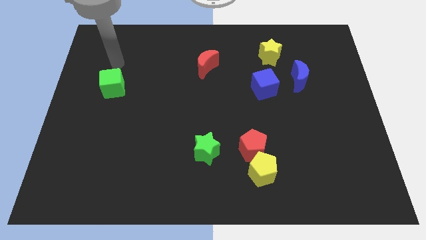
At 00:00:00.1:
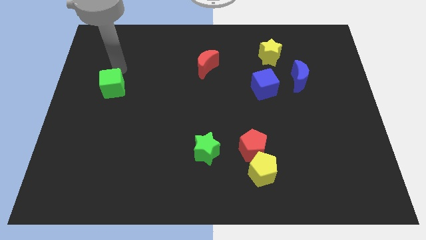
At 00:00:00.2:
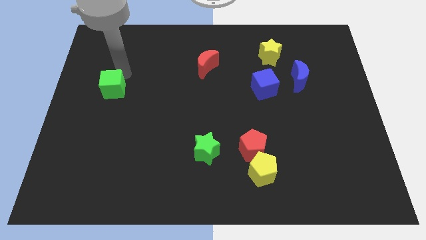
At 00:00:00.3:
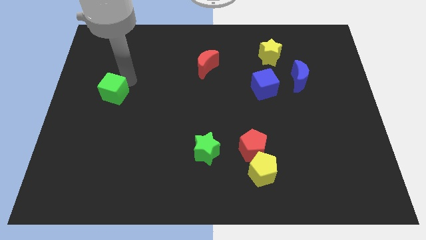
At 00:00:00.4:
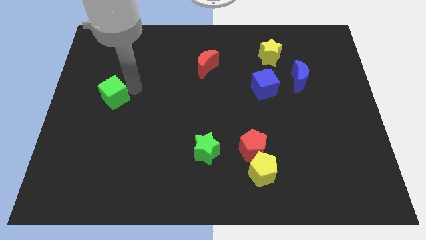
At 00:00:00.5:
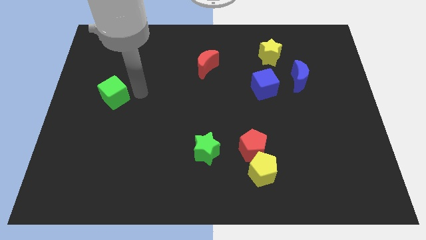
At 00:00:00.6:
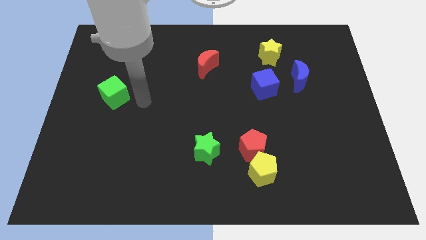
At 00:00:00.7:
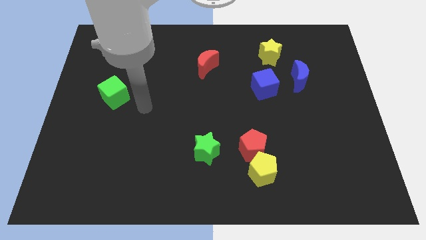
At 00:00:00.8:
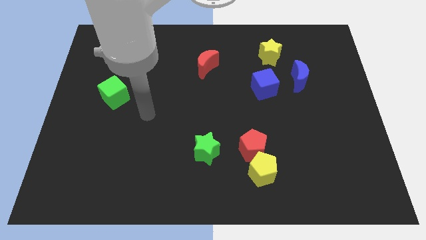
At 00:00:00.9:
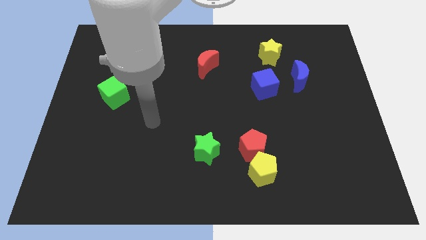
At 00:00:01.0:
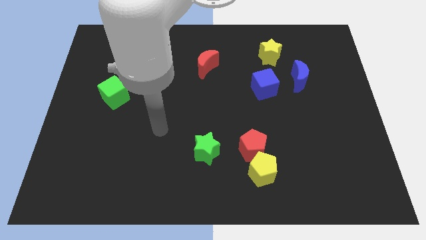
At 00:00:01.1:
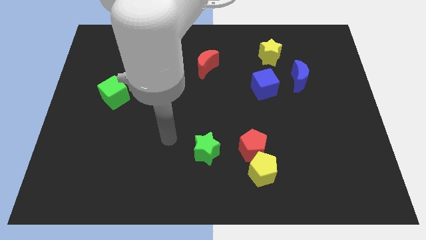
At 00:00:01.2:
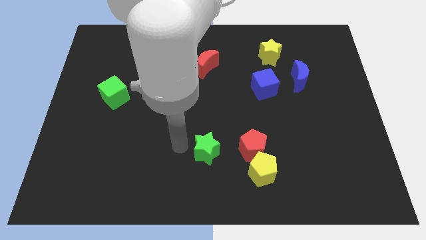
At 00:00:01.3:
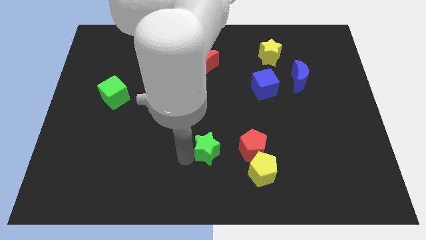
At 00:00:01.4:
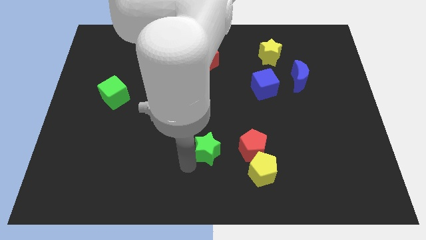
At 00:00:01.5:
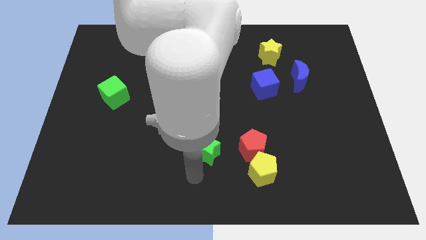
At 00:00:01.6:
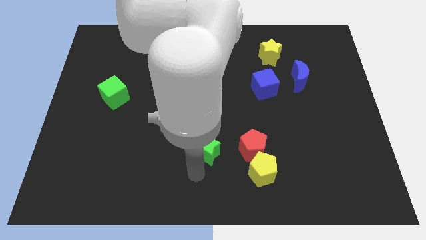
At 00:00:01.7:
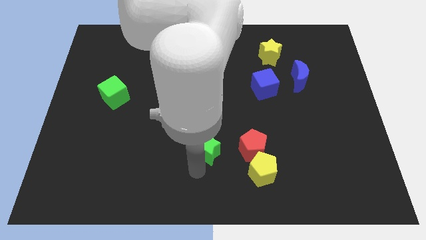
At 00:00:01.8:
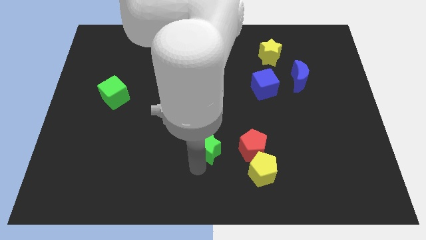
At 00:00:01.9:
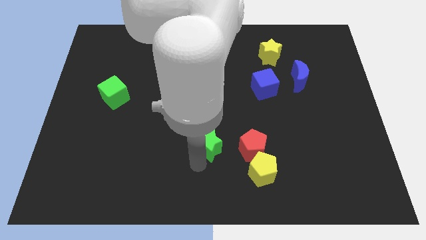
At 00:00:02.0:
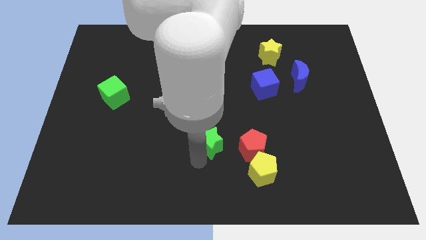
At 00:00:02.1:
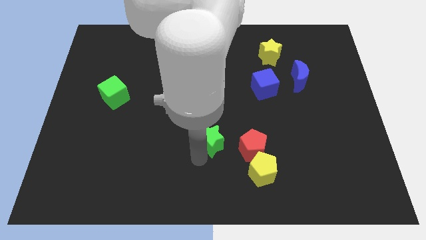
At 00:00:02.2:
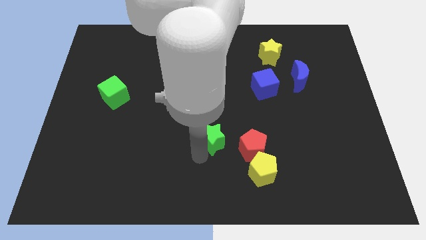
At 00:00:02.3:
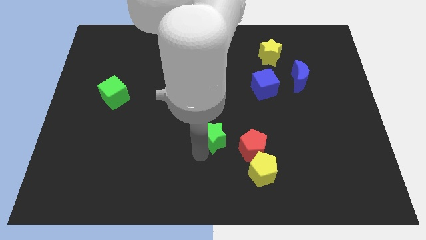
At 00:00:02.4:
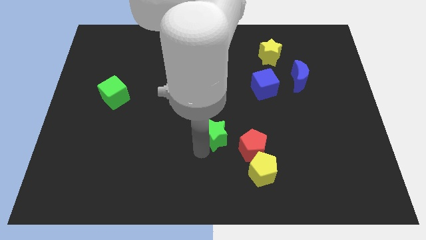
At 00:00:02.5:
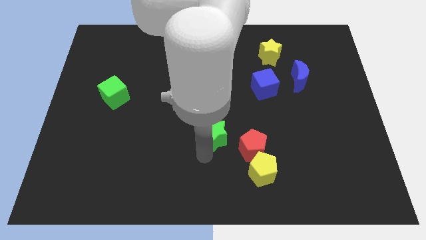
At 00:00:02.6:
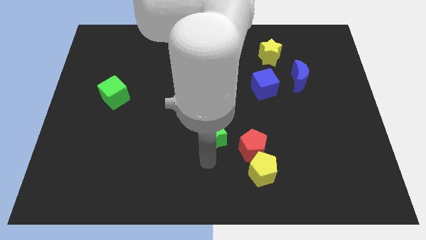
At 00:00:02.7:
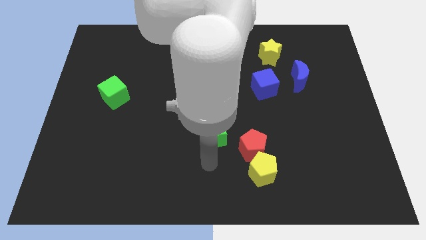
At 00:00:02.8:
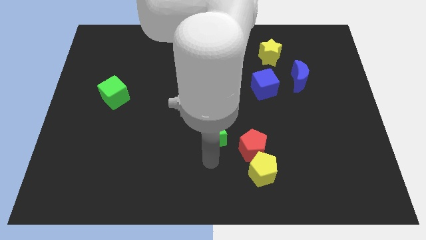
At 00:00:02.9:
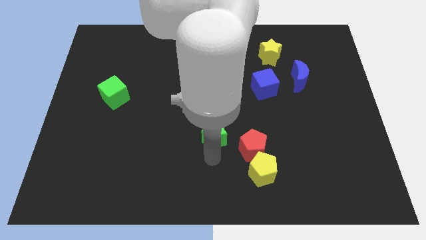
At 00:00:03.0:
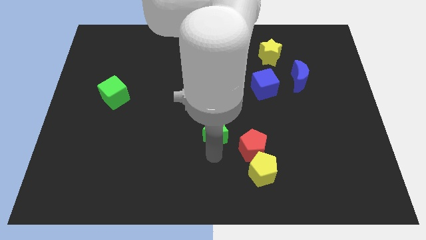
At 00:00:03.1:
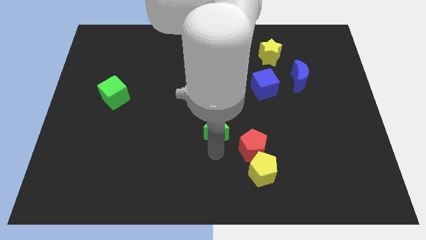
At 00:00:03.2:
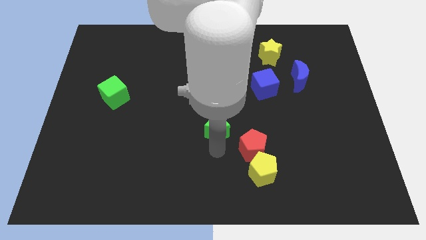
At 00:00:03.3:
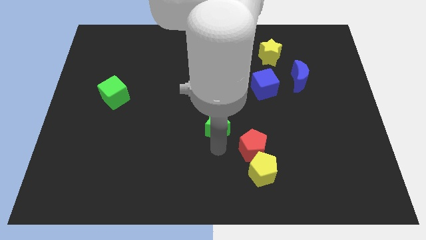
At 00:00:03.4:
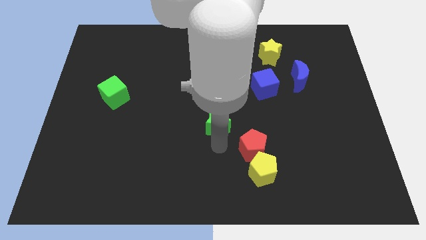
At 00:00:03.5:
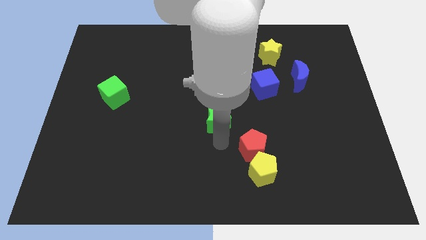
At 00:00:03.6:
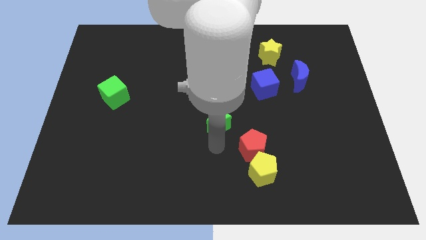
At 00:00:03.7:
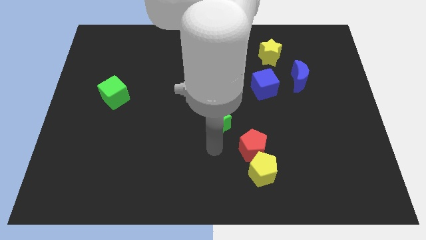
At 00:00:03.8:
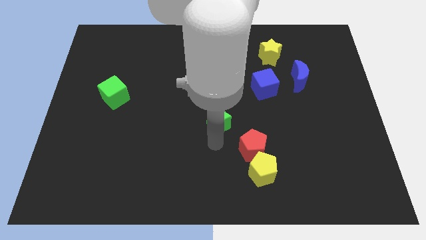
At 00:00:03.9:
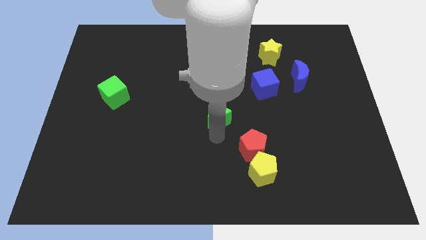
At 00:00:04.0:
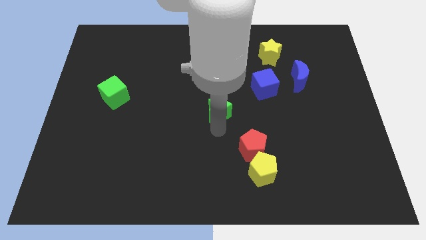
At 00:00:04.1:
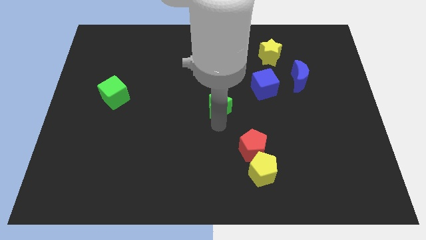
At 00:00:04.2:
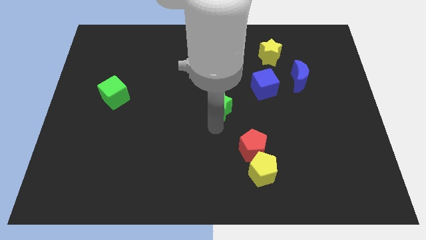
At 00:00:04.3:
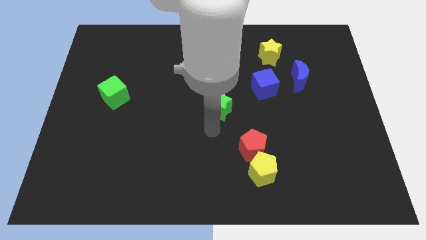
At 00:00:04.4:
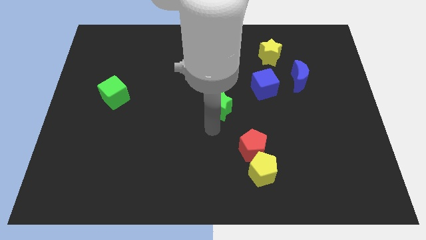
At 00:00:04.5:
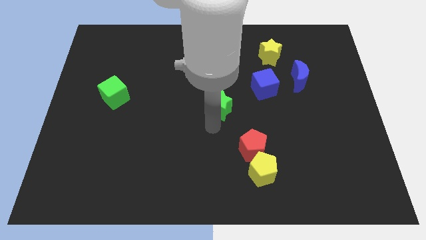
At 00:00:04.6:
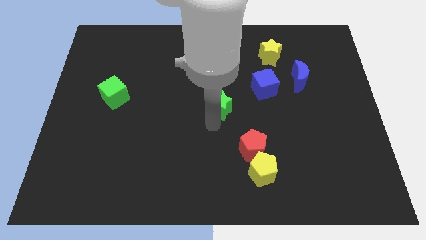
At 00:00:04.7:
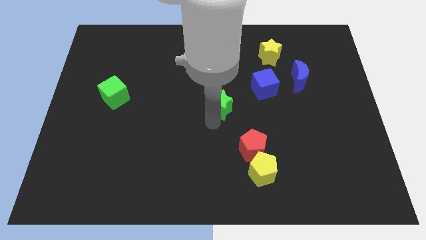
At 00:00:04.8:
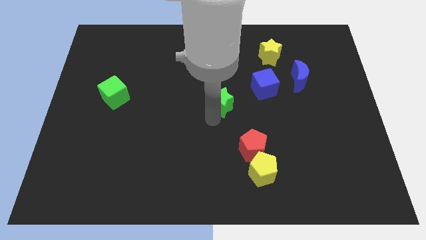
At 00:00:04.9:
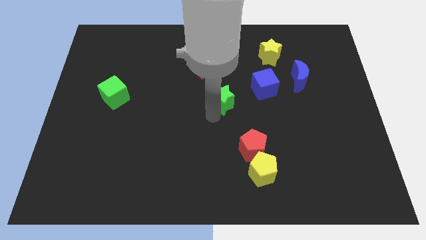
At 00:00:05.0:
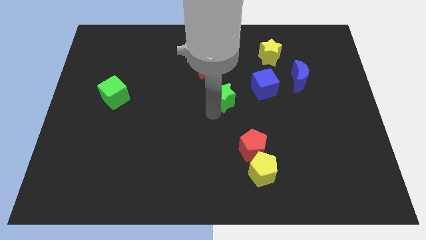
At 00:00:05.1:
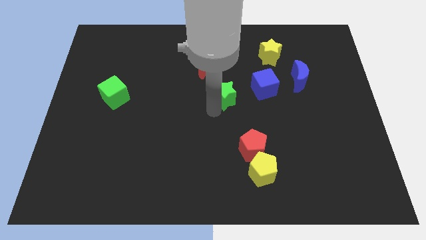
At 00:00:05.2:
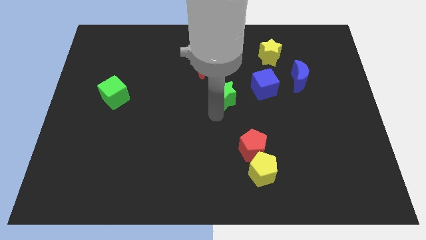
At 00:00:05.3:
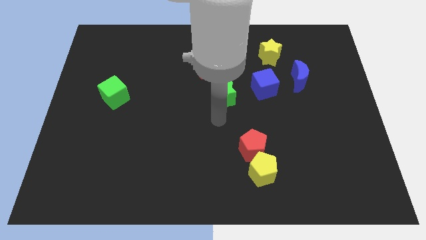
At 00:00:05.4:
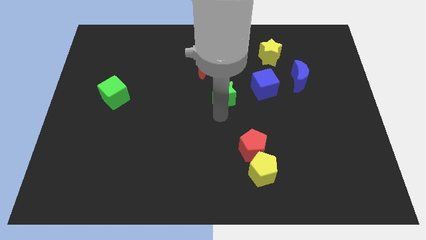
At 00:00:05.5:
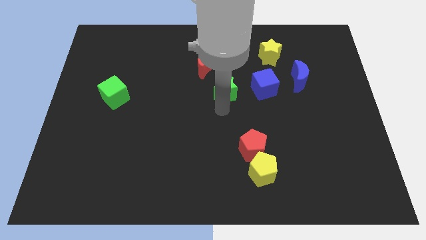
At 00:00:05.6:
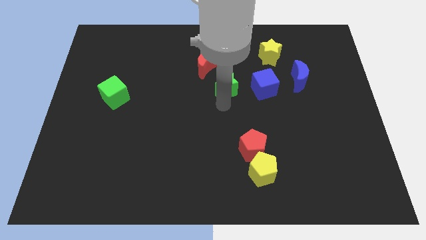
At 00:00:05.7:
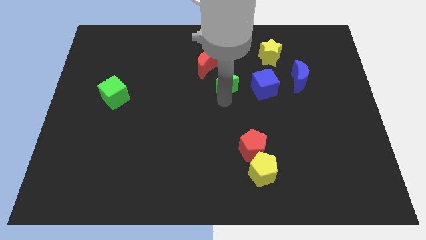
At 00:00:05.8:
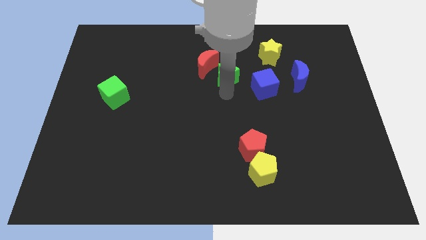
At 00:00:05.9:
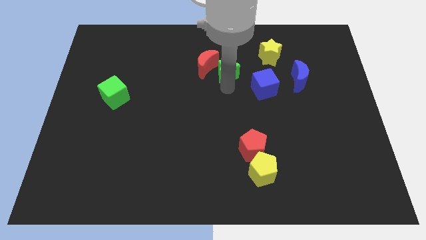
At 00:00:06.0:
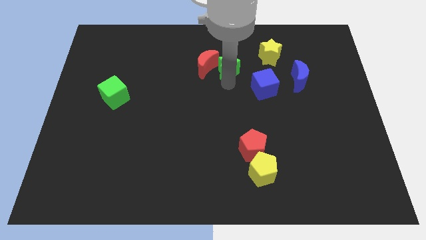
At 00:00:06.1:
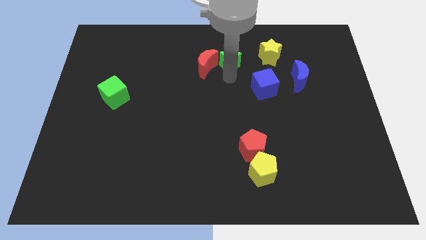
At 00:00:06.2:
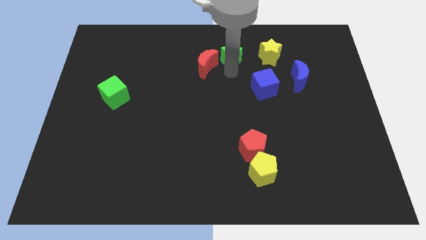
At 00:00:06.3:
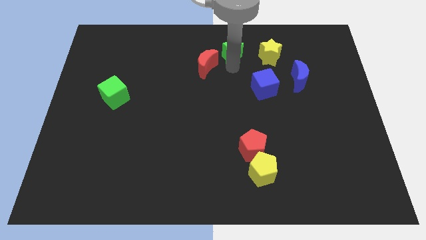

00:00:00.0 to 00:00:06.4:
put the green star to the top
